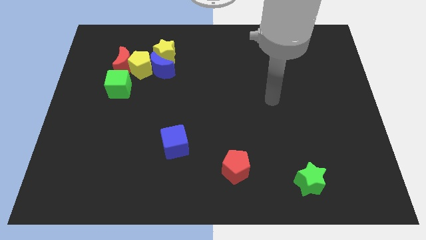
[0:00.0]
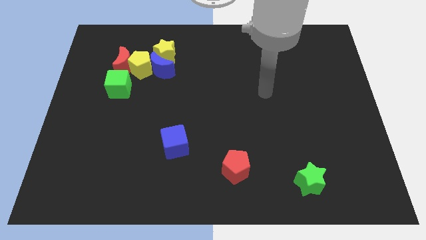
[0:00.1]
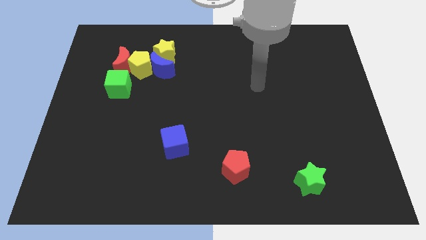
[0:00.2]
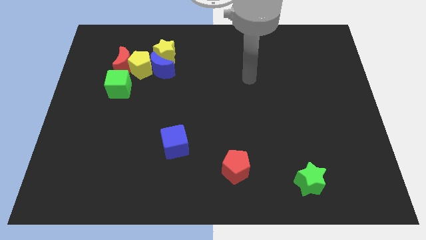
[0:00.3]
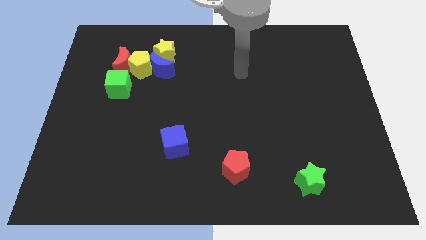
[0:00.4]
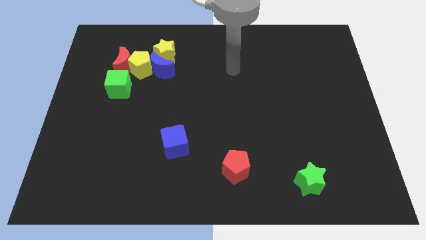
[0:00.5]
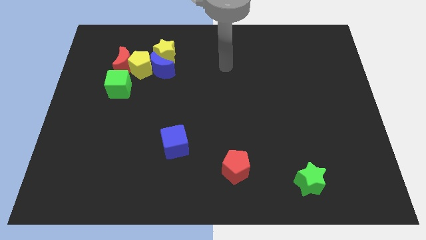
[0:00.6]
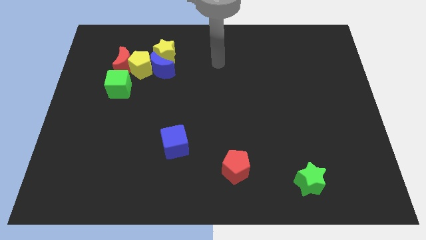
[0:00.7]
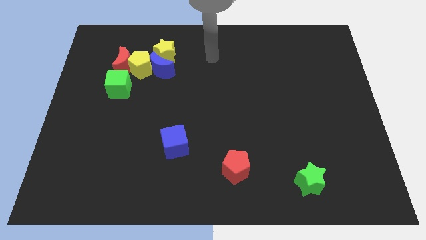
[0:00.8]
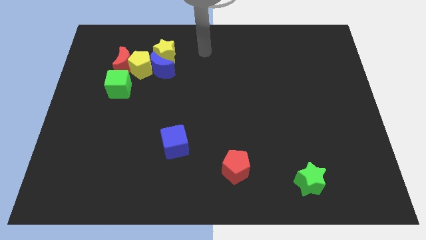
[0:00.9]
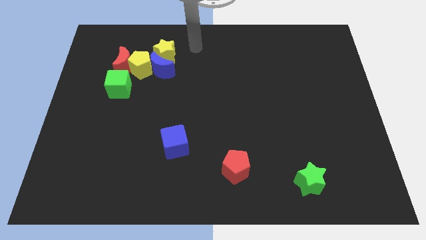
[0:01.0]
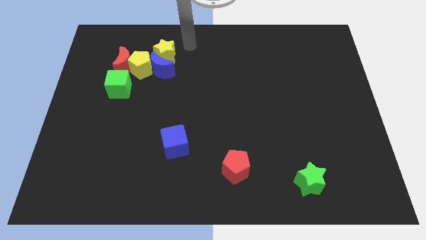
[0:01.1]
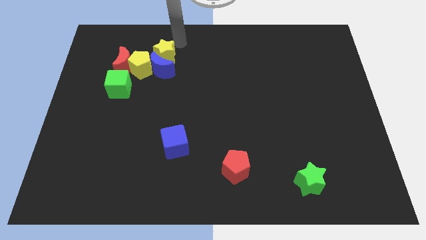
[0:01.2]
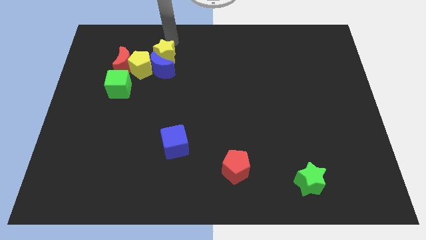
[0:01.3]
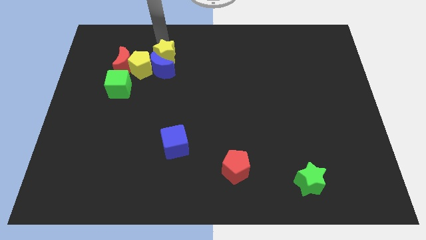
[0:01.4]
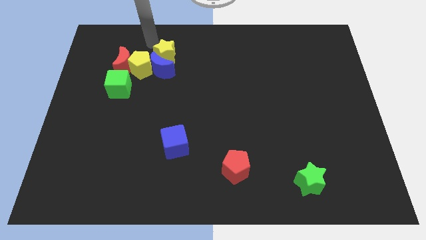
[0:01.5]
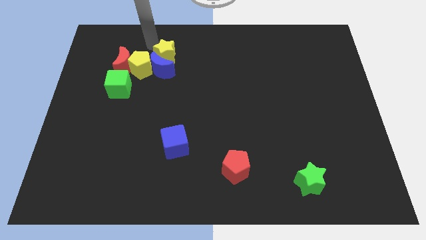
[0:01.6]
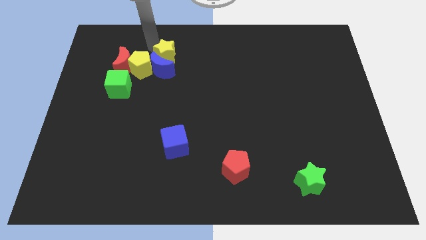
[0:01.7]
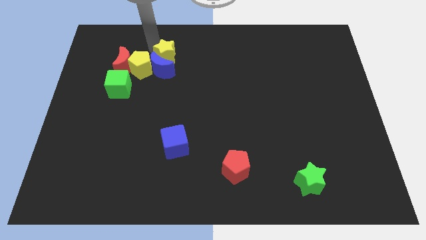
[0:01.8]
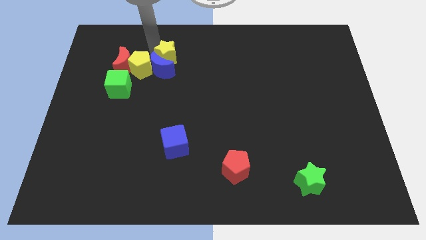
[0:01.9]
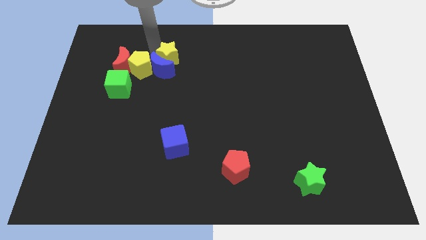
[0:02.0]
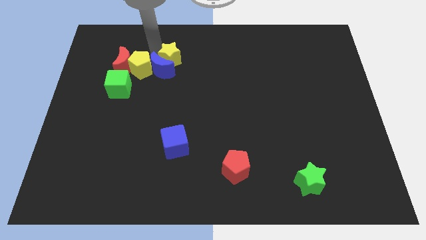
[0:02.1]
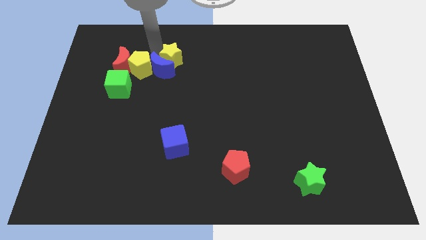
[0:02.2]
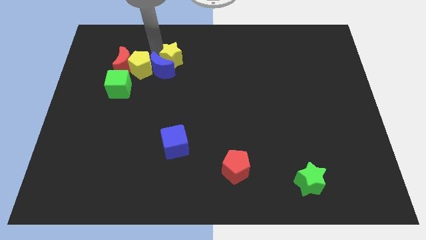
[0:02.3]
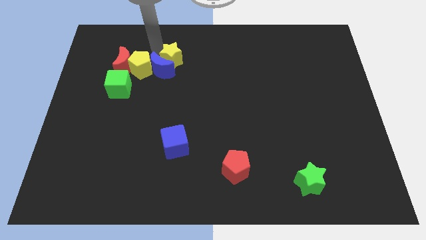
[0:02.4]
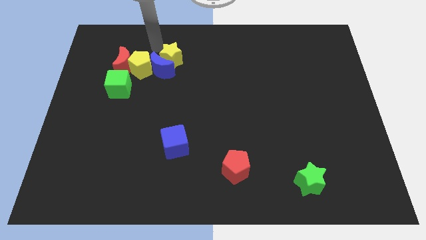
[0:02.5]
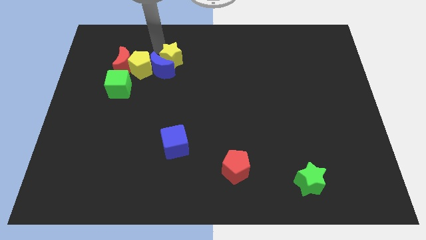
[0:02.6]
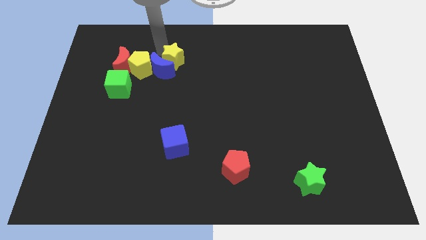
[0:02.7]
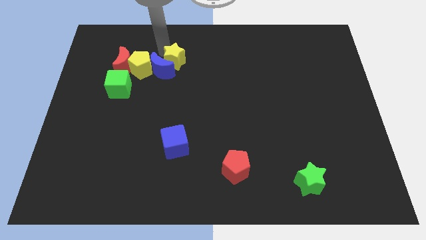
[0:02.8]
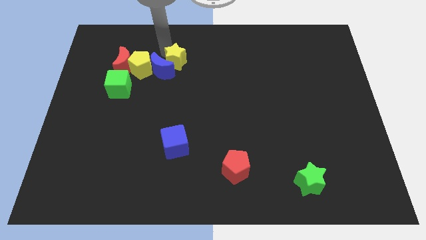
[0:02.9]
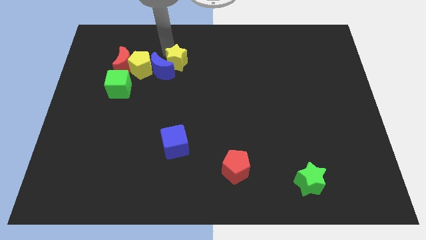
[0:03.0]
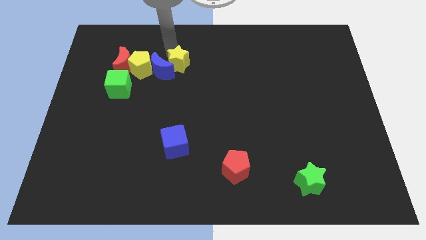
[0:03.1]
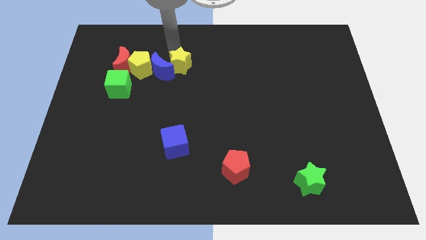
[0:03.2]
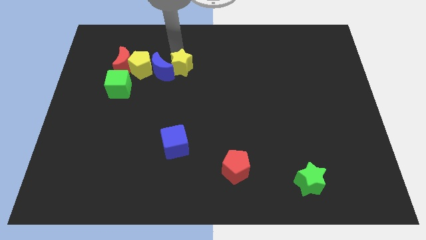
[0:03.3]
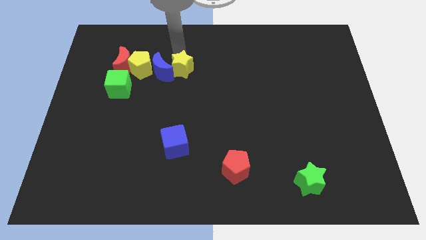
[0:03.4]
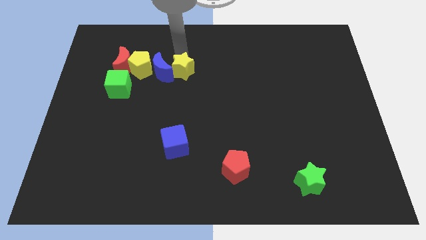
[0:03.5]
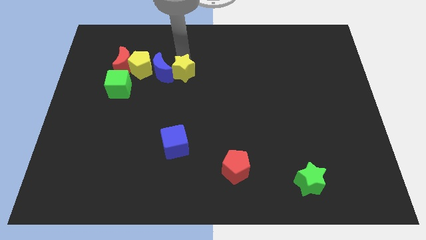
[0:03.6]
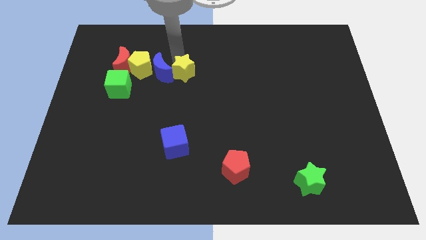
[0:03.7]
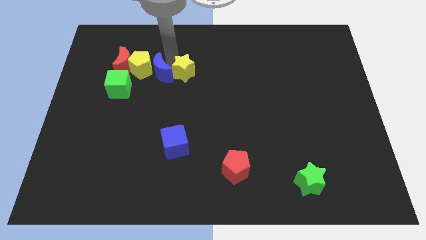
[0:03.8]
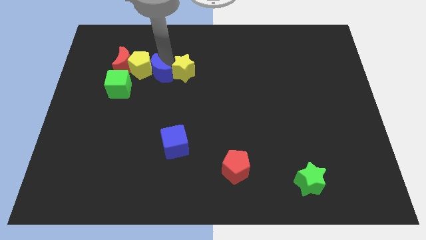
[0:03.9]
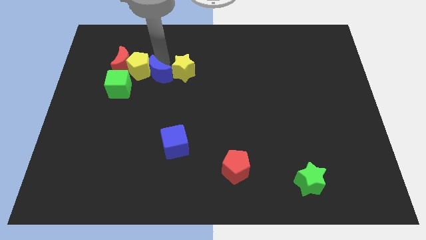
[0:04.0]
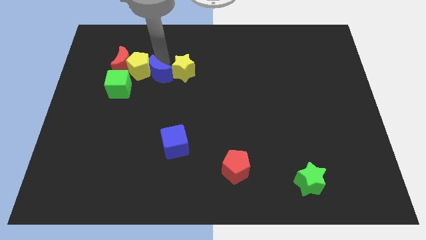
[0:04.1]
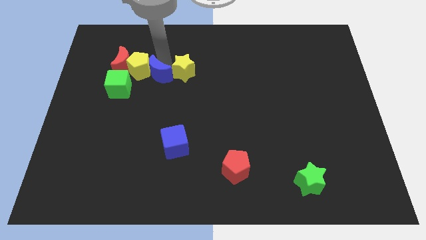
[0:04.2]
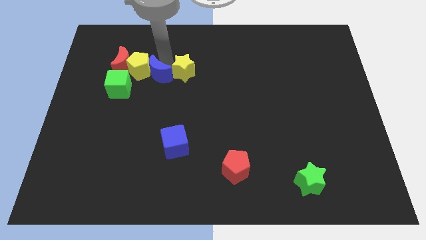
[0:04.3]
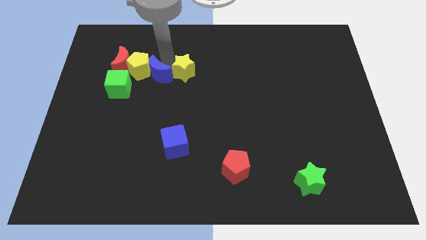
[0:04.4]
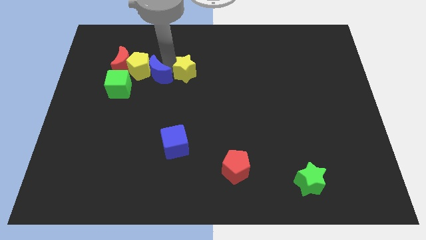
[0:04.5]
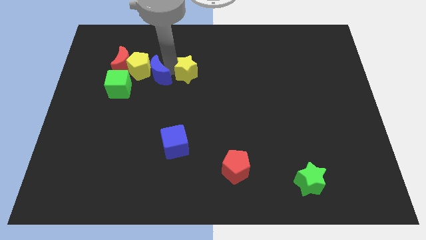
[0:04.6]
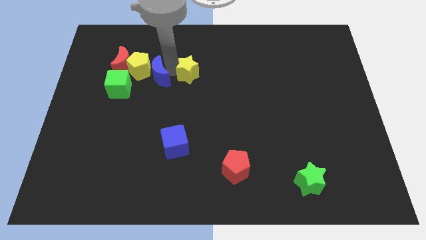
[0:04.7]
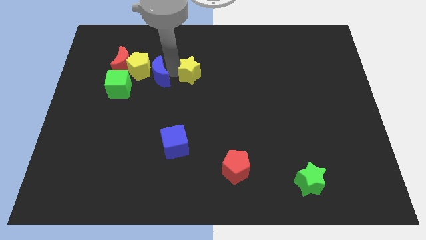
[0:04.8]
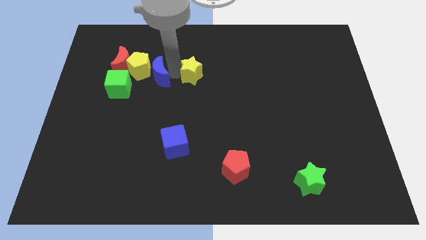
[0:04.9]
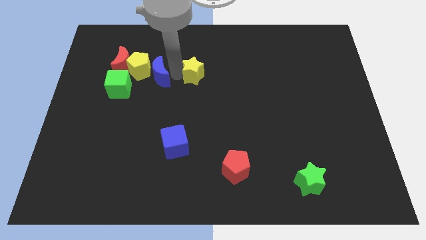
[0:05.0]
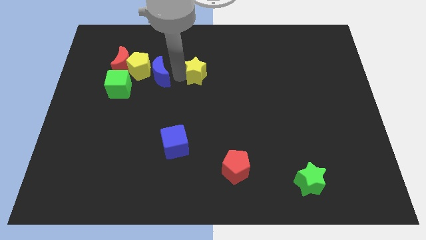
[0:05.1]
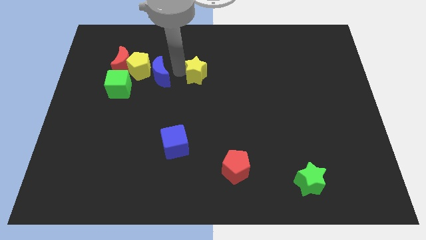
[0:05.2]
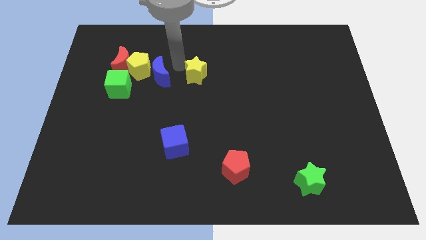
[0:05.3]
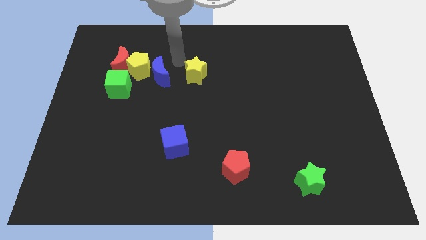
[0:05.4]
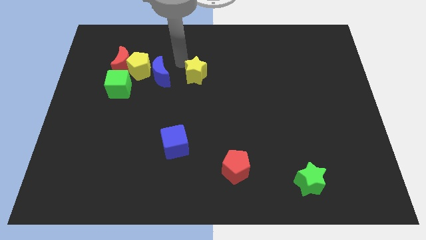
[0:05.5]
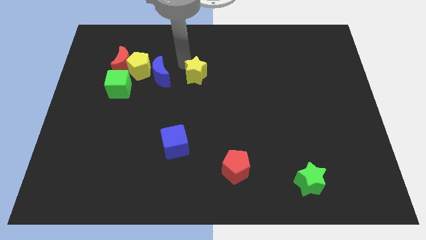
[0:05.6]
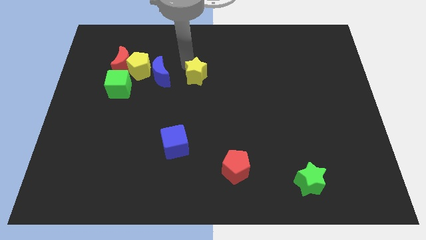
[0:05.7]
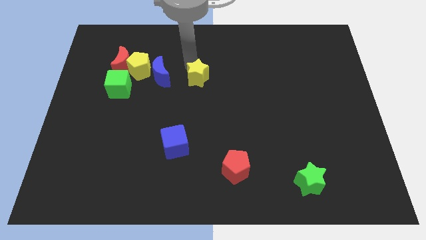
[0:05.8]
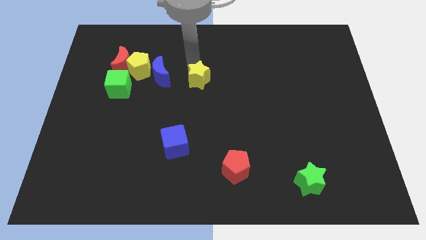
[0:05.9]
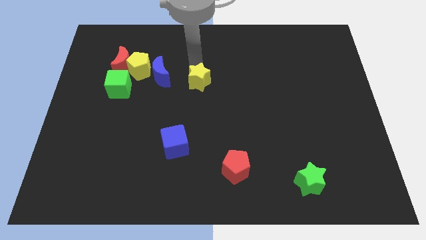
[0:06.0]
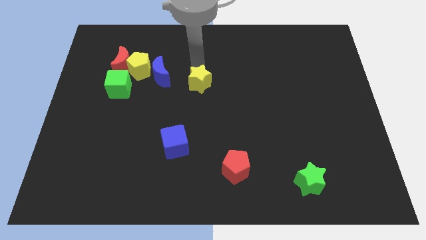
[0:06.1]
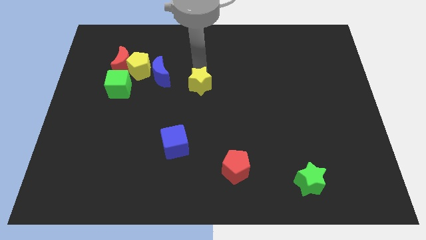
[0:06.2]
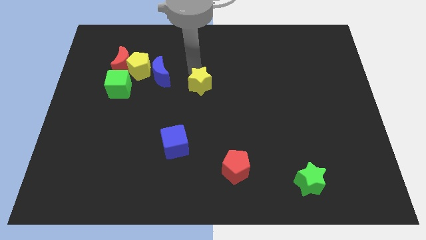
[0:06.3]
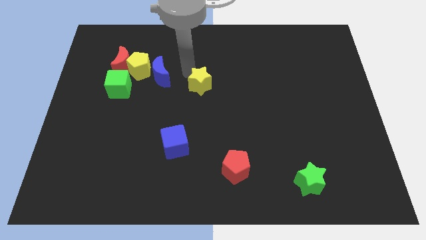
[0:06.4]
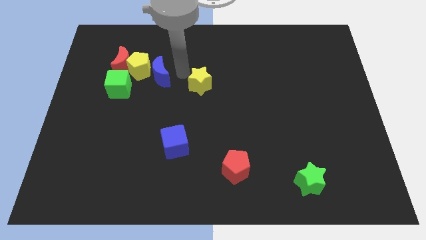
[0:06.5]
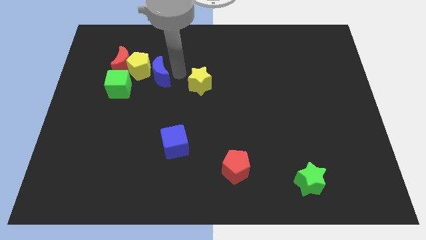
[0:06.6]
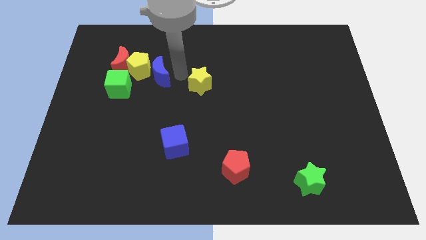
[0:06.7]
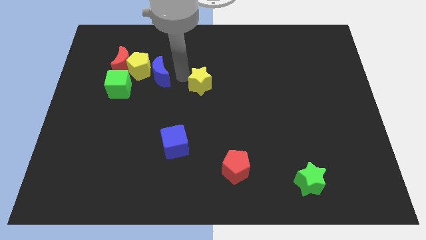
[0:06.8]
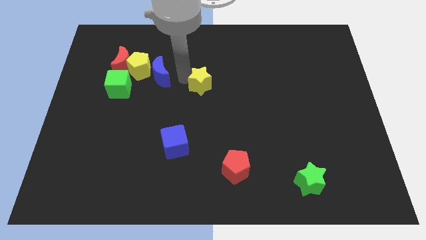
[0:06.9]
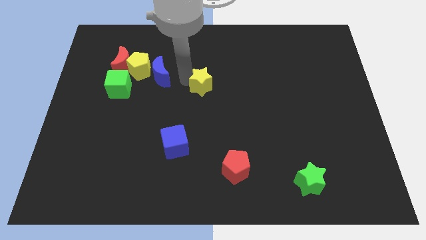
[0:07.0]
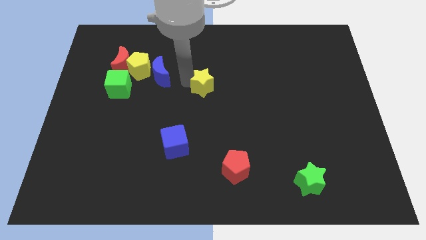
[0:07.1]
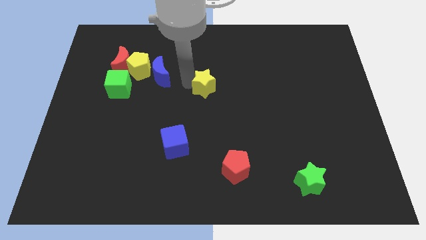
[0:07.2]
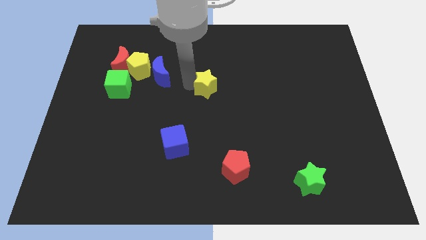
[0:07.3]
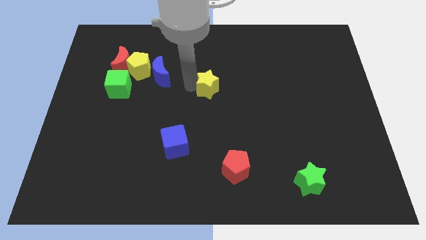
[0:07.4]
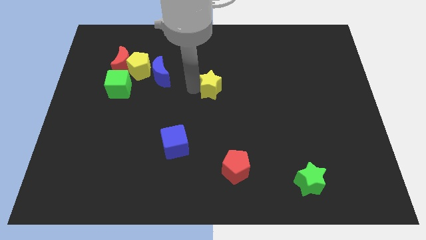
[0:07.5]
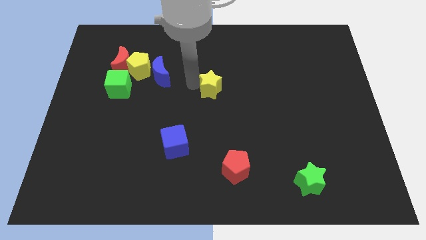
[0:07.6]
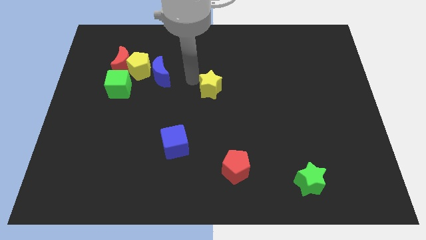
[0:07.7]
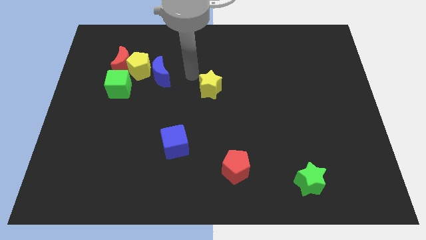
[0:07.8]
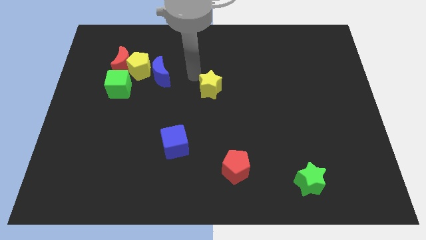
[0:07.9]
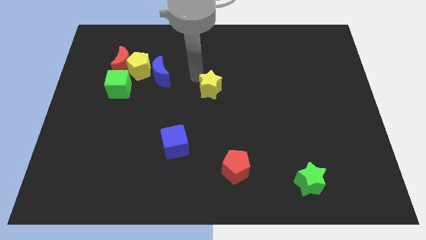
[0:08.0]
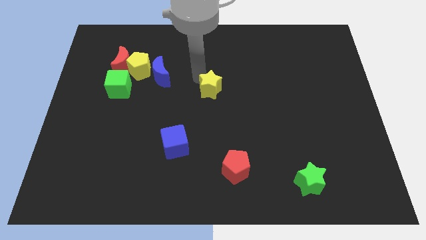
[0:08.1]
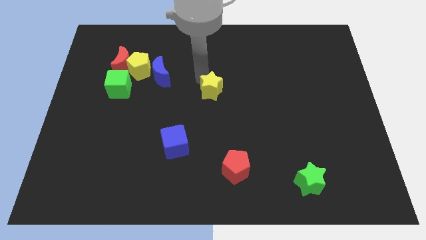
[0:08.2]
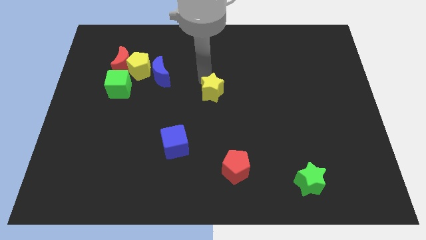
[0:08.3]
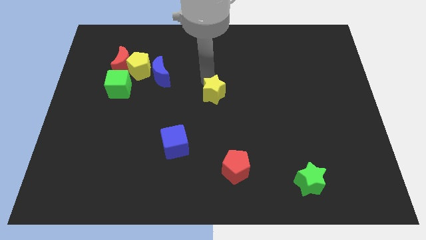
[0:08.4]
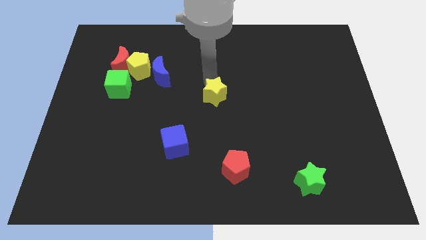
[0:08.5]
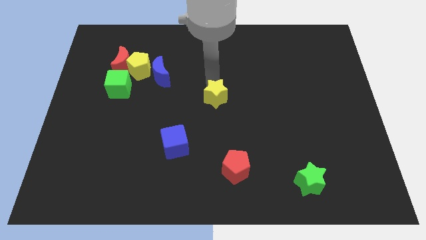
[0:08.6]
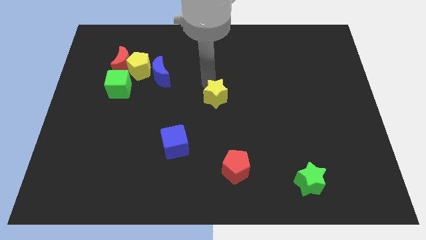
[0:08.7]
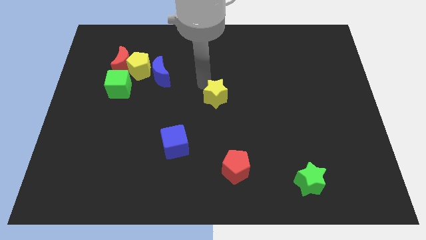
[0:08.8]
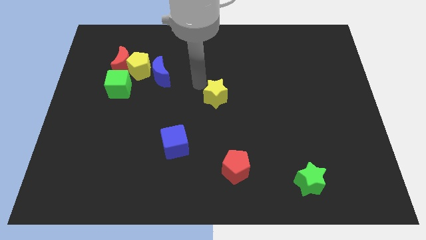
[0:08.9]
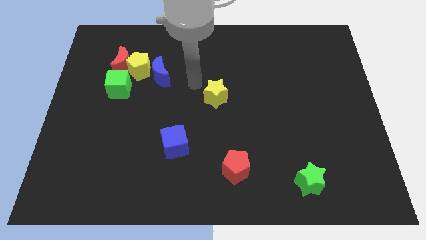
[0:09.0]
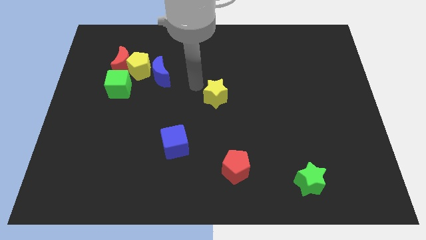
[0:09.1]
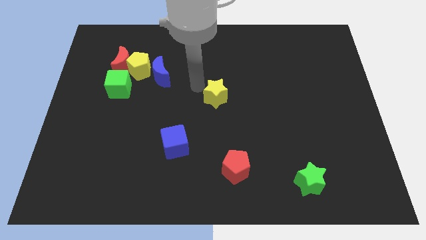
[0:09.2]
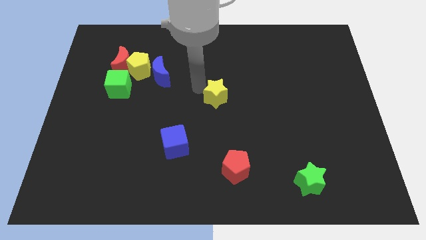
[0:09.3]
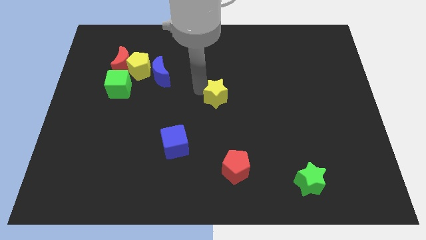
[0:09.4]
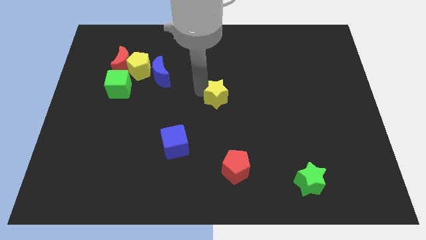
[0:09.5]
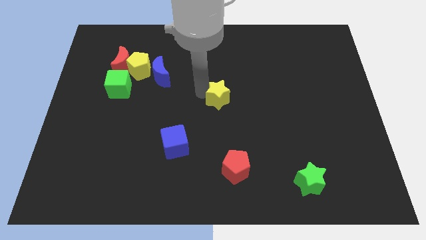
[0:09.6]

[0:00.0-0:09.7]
slide the yellow star down and to the right diagonally
